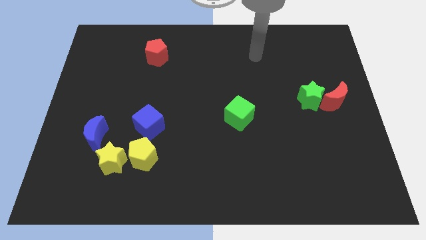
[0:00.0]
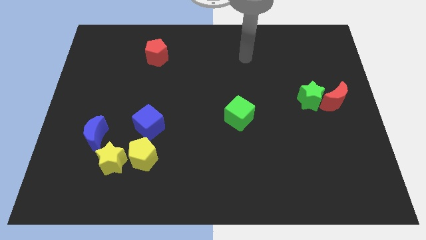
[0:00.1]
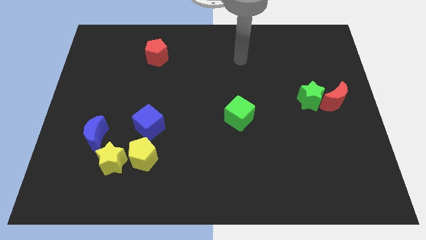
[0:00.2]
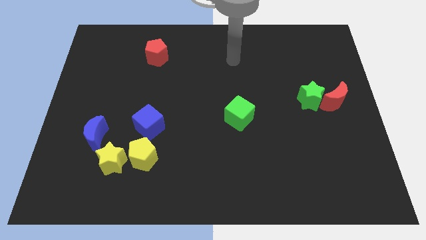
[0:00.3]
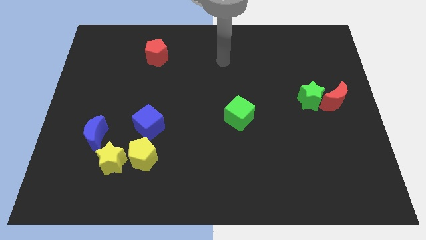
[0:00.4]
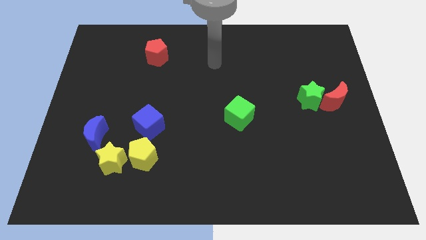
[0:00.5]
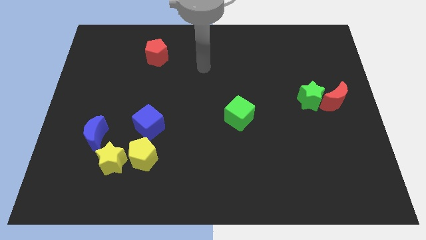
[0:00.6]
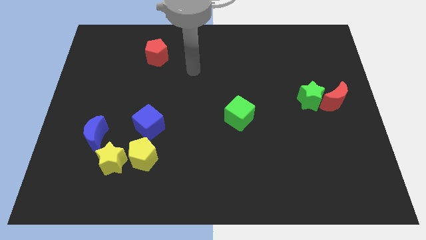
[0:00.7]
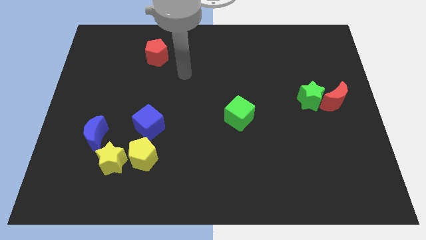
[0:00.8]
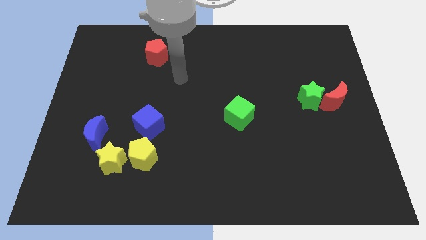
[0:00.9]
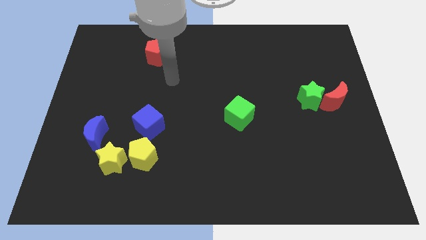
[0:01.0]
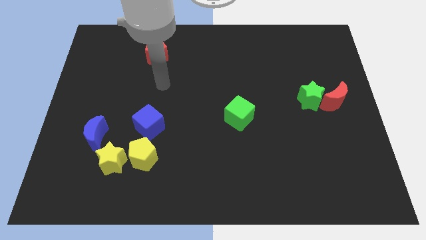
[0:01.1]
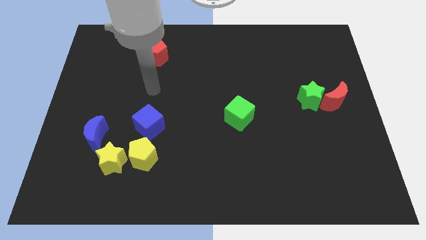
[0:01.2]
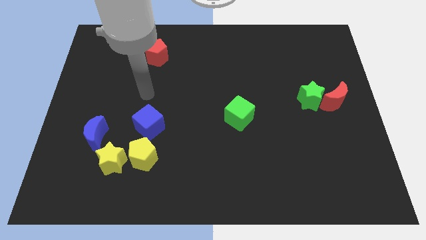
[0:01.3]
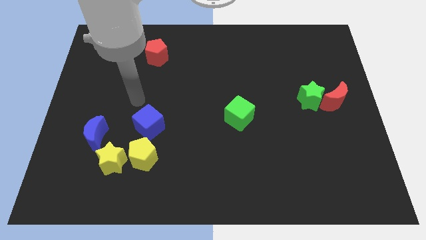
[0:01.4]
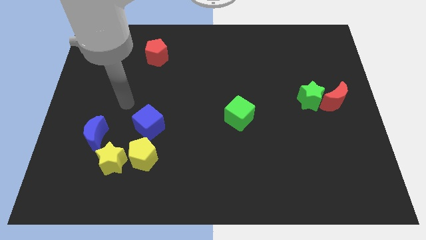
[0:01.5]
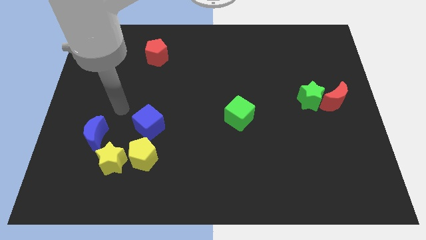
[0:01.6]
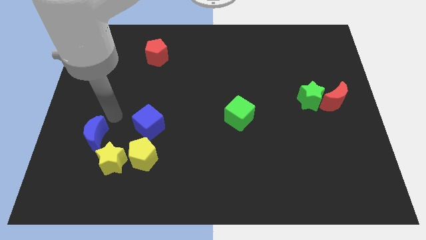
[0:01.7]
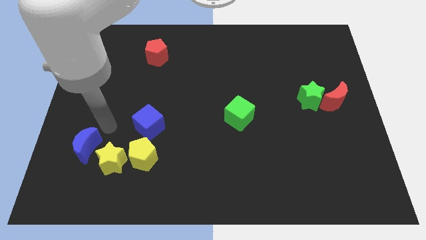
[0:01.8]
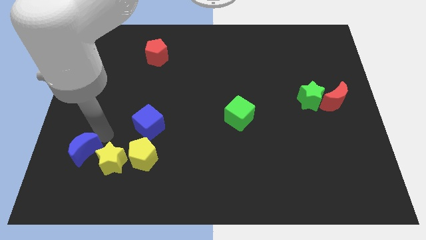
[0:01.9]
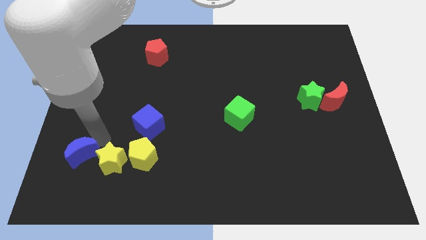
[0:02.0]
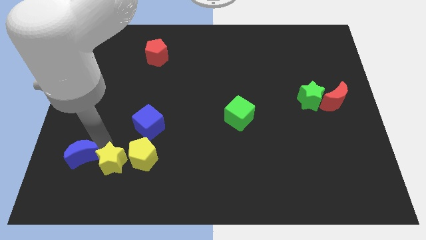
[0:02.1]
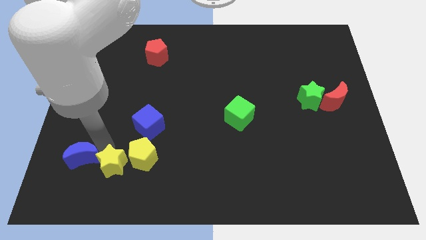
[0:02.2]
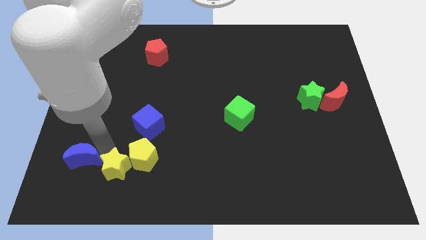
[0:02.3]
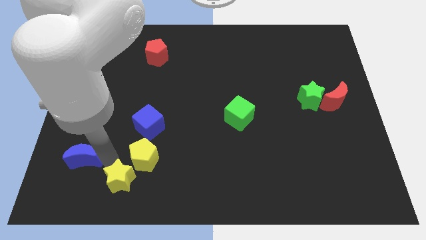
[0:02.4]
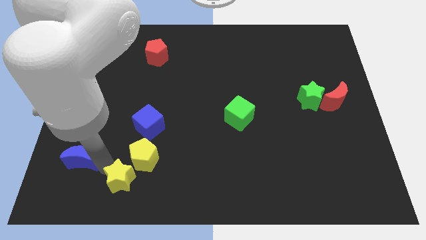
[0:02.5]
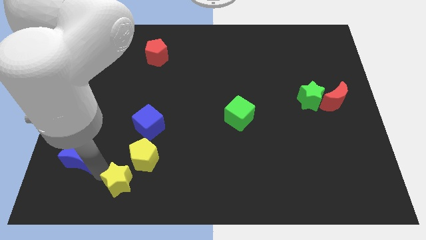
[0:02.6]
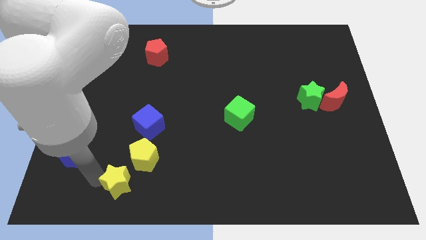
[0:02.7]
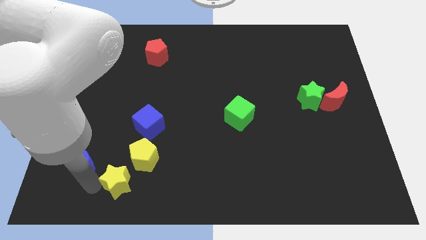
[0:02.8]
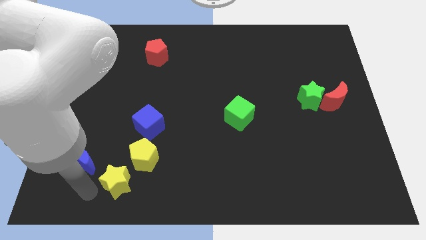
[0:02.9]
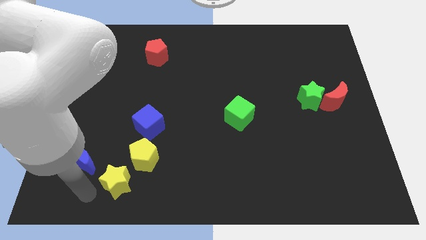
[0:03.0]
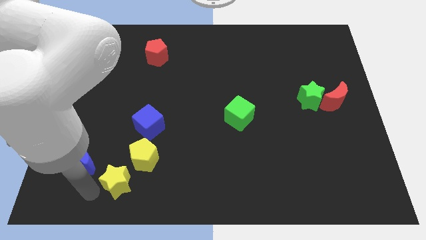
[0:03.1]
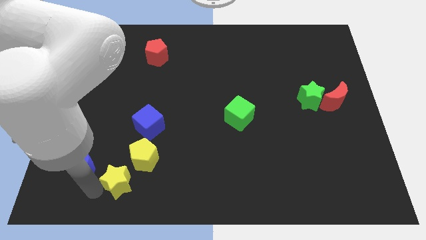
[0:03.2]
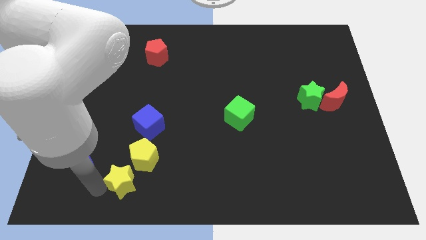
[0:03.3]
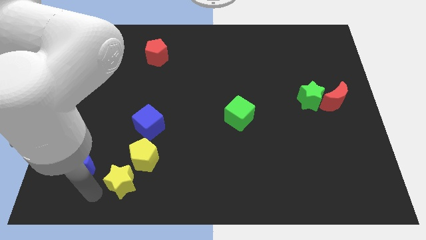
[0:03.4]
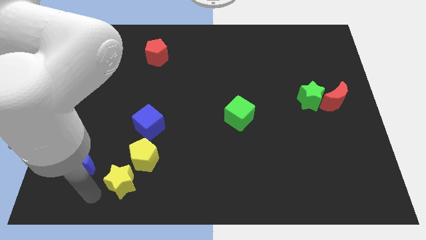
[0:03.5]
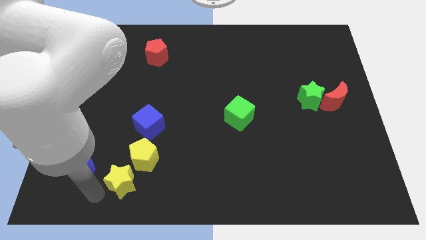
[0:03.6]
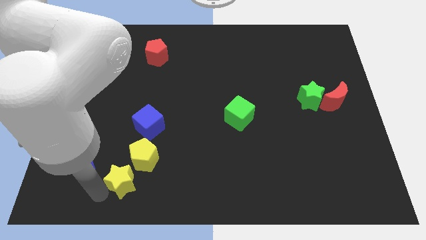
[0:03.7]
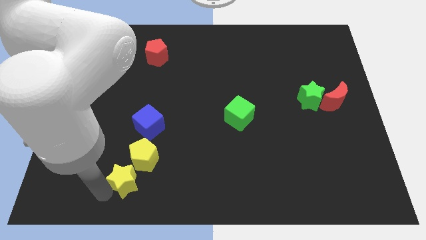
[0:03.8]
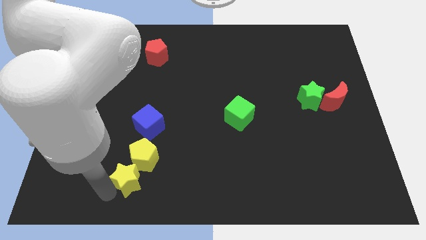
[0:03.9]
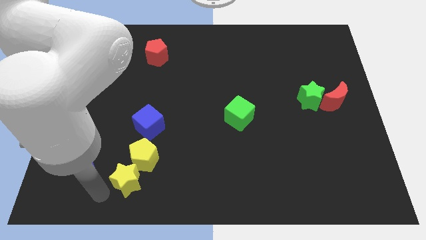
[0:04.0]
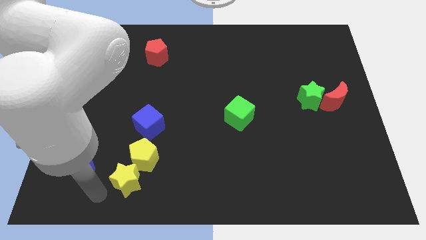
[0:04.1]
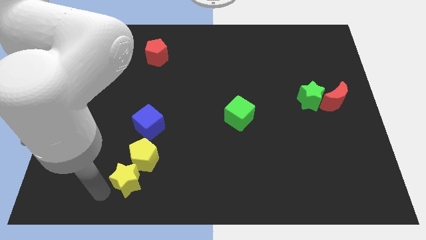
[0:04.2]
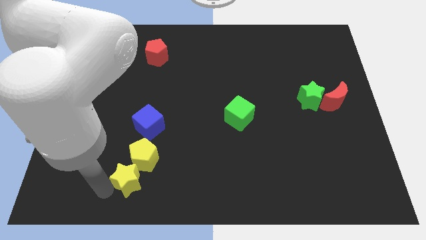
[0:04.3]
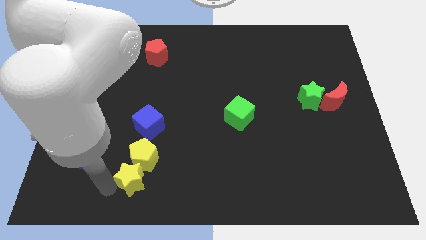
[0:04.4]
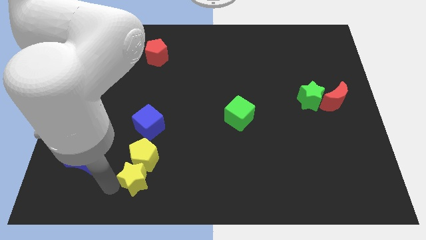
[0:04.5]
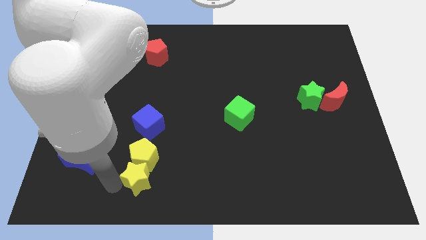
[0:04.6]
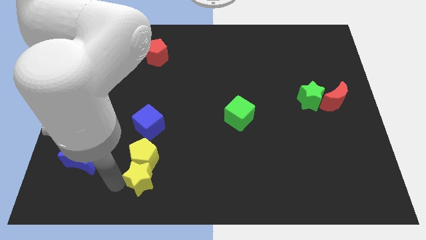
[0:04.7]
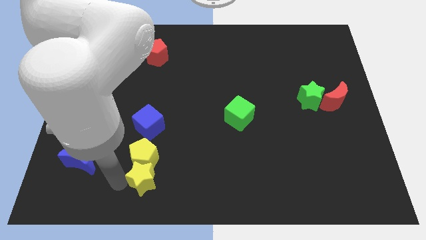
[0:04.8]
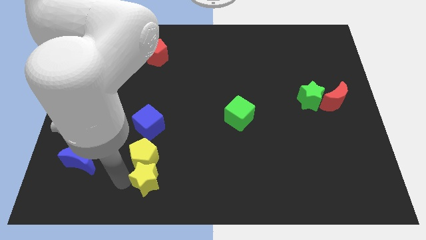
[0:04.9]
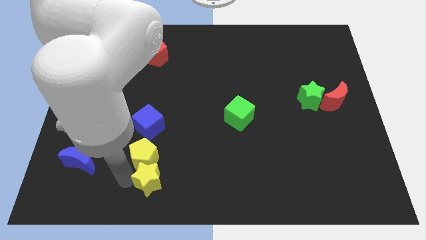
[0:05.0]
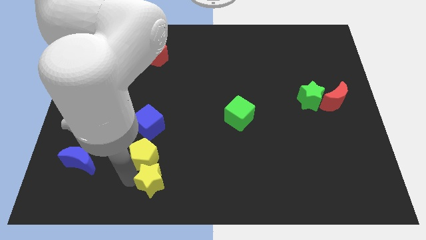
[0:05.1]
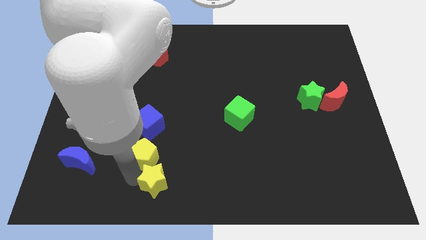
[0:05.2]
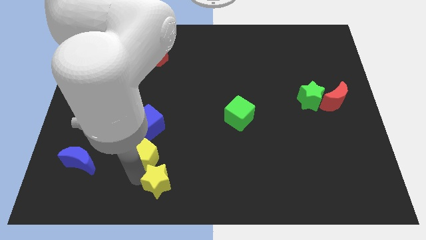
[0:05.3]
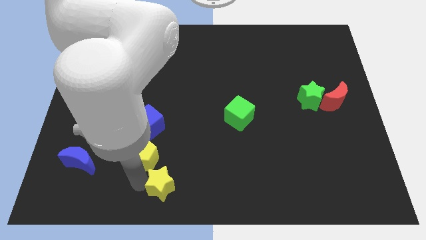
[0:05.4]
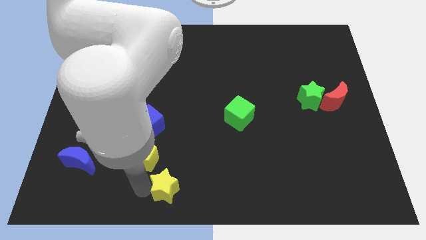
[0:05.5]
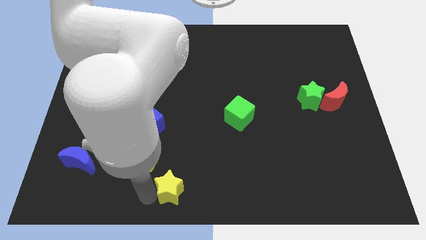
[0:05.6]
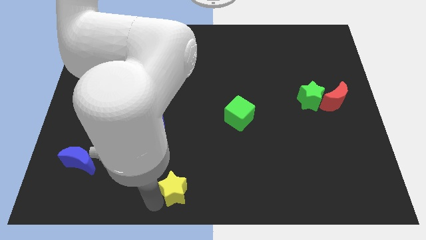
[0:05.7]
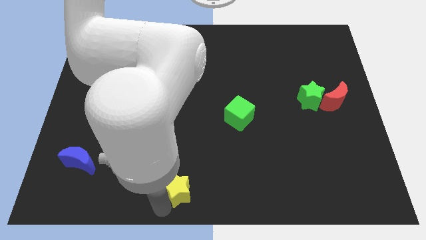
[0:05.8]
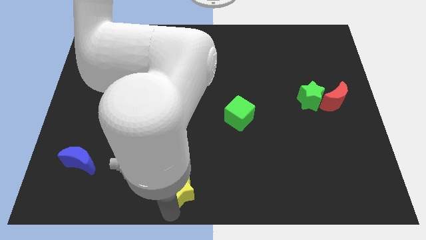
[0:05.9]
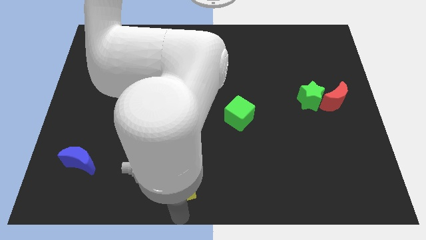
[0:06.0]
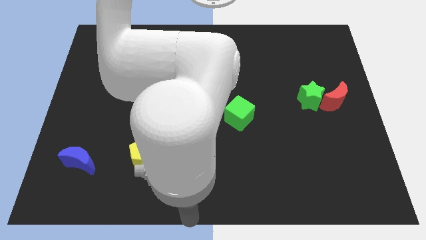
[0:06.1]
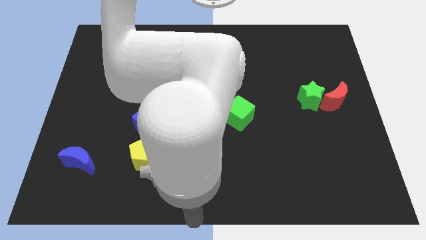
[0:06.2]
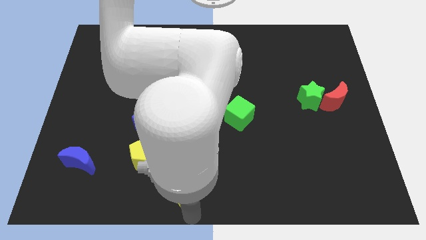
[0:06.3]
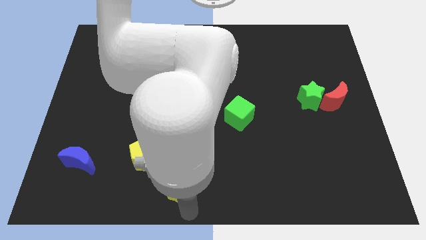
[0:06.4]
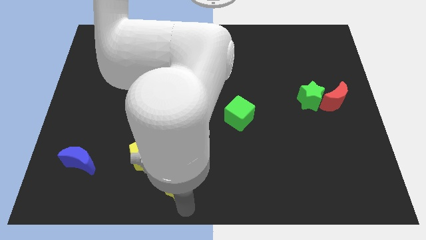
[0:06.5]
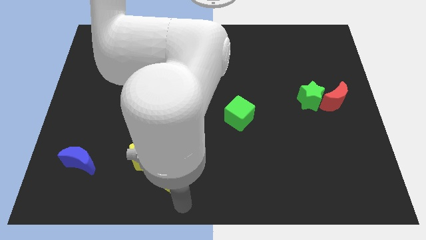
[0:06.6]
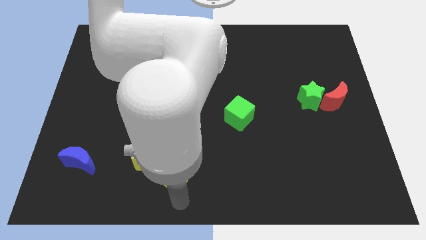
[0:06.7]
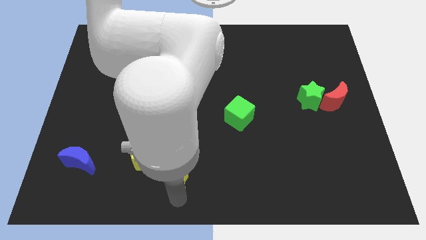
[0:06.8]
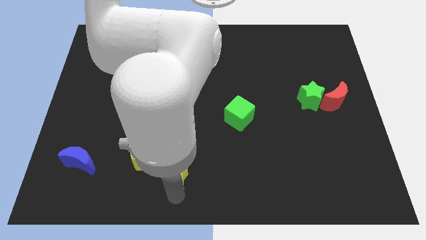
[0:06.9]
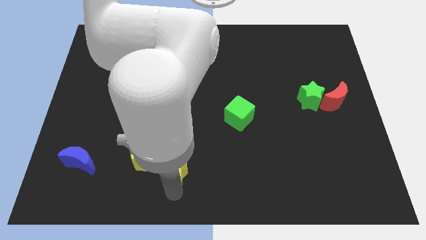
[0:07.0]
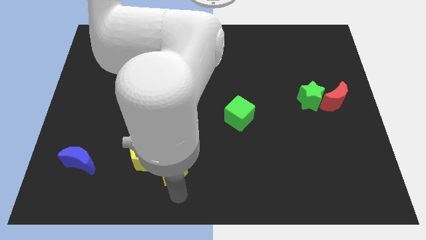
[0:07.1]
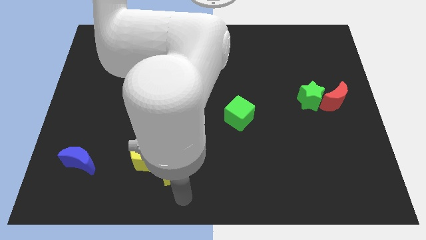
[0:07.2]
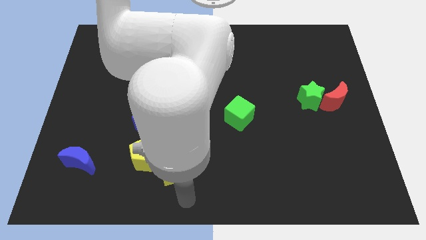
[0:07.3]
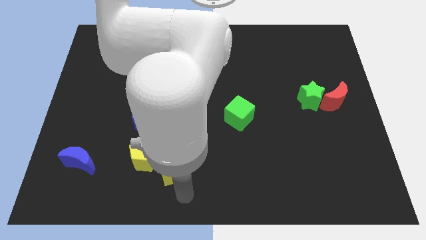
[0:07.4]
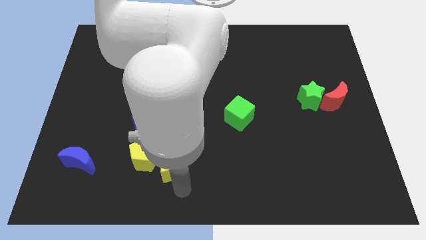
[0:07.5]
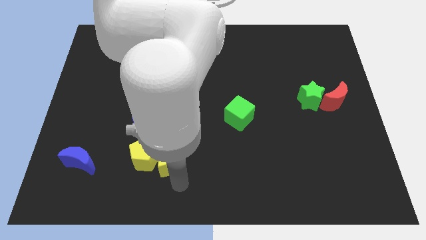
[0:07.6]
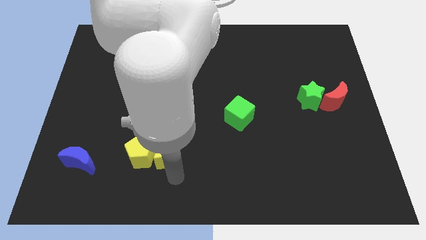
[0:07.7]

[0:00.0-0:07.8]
slide the yellow star diagonally up and to the right of the yellow pentagon

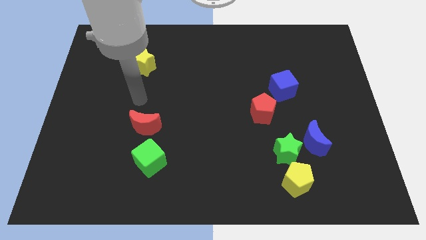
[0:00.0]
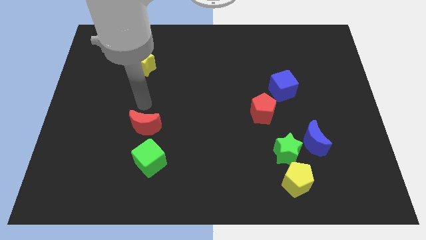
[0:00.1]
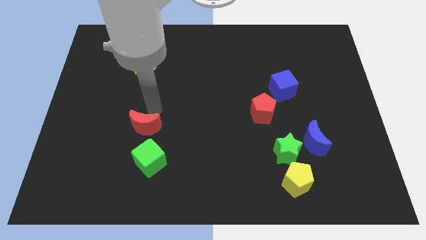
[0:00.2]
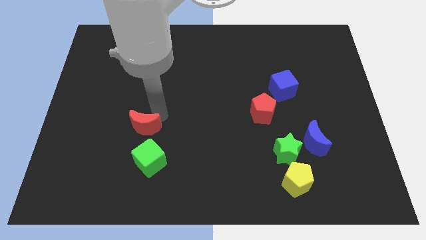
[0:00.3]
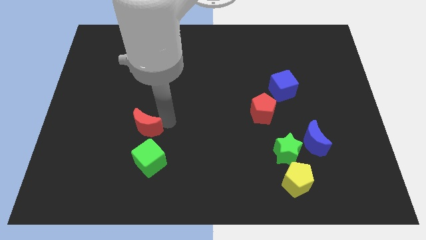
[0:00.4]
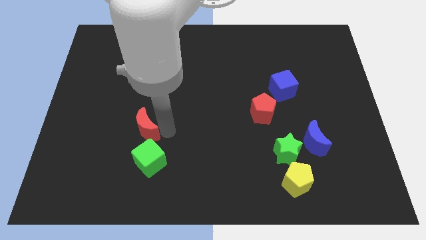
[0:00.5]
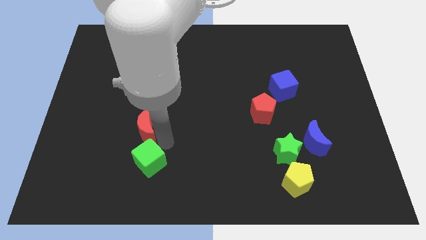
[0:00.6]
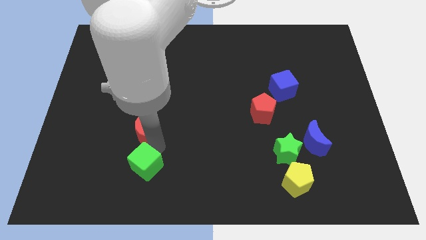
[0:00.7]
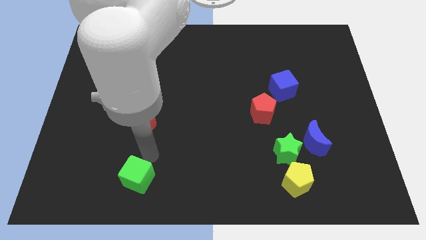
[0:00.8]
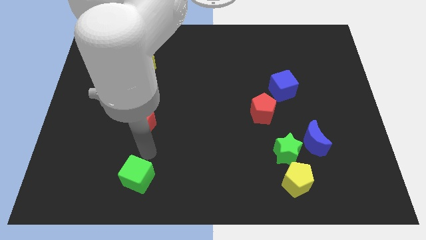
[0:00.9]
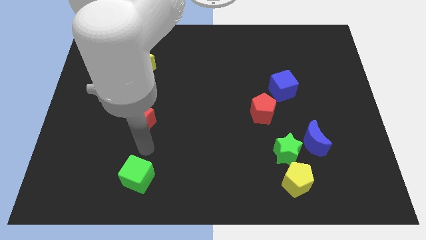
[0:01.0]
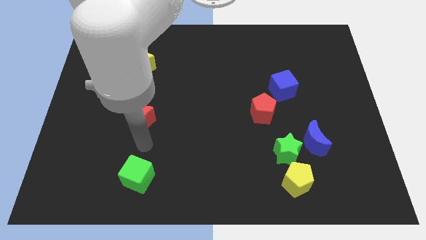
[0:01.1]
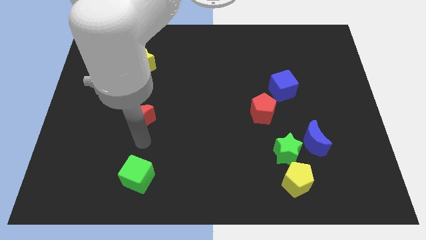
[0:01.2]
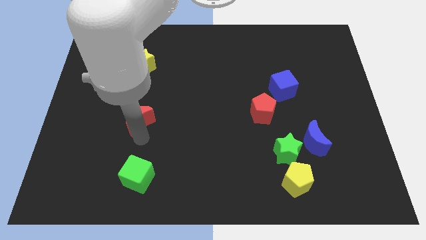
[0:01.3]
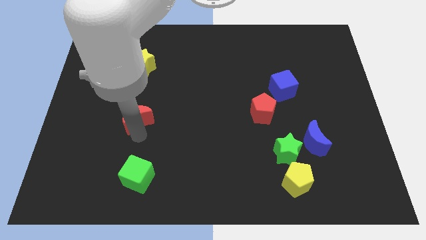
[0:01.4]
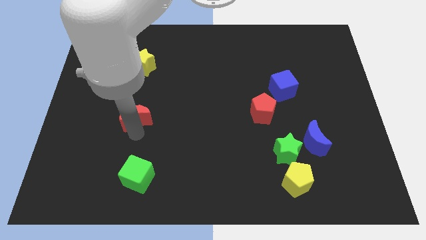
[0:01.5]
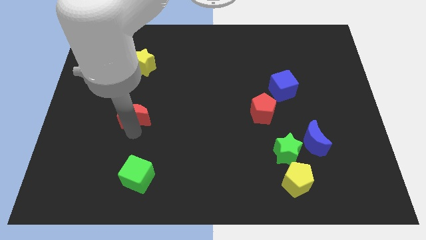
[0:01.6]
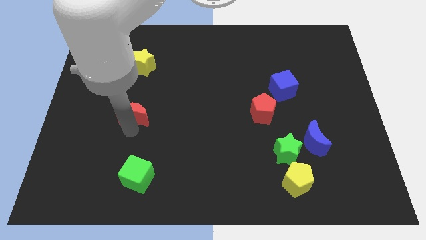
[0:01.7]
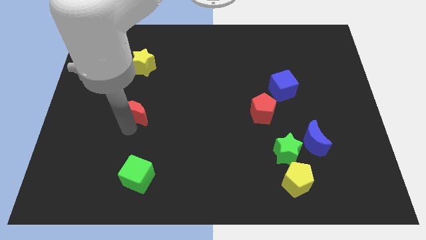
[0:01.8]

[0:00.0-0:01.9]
slide the red moon to the bottom side of the yellow star
